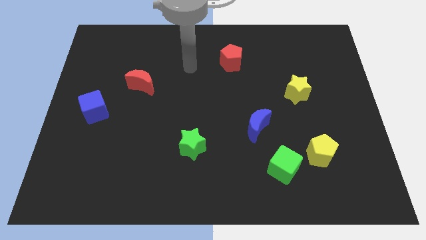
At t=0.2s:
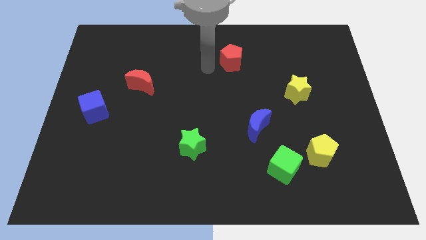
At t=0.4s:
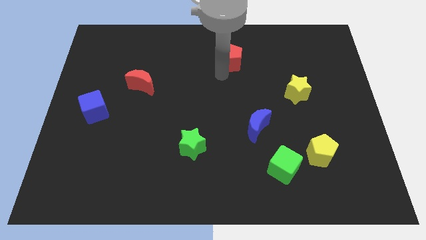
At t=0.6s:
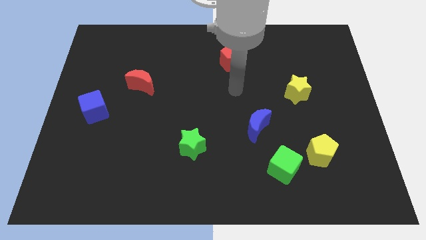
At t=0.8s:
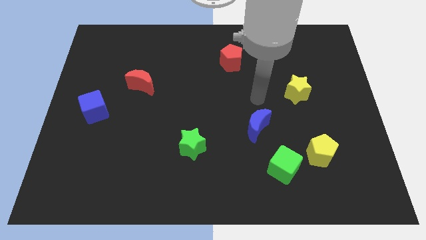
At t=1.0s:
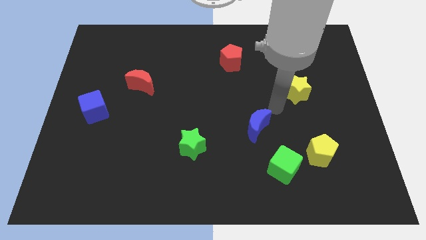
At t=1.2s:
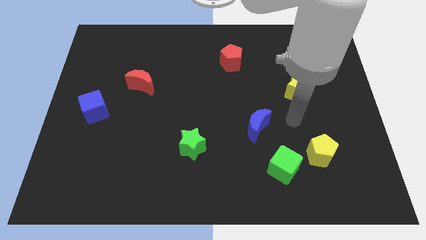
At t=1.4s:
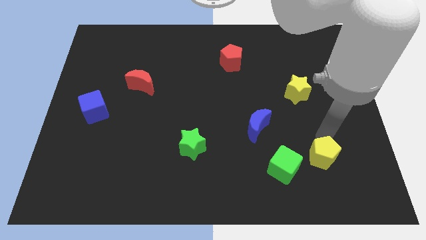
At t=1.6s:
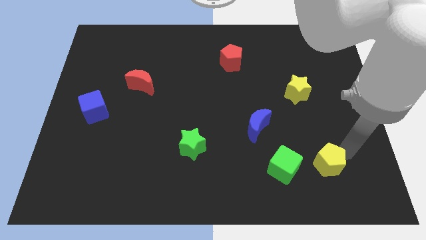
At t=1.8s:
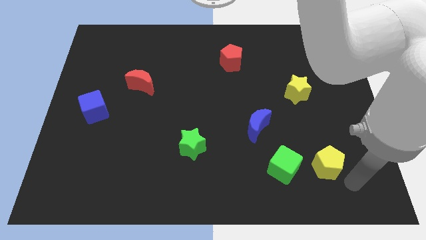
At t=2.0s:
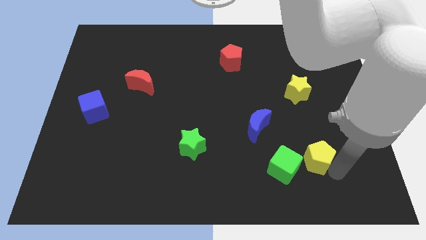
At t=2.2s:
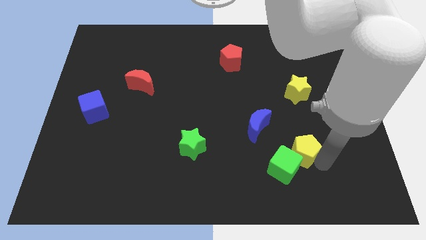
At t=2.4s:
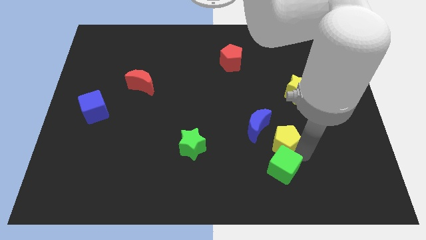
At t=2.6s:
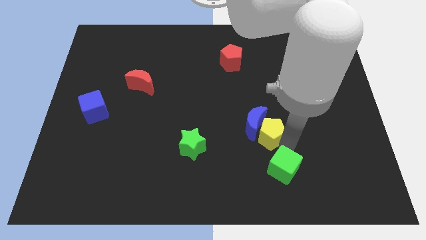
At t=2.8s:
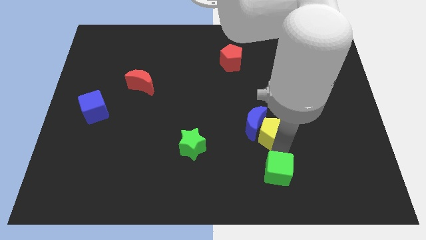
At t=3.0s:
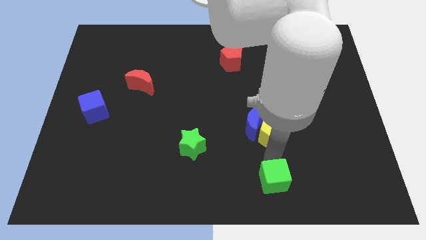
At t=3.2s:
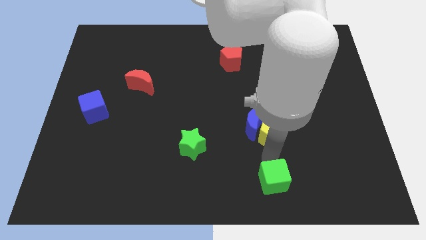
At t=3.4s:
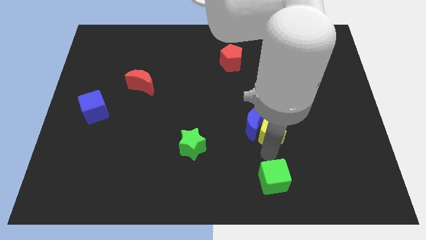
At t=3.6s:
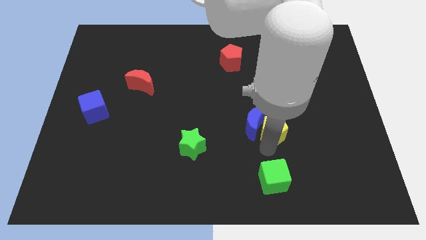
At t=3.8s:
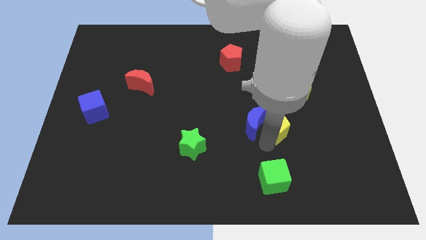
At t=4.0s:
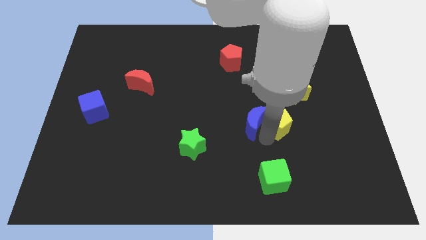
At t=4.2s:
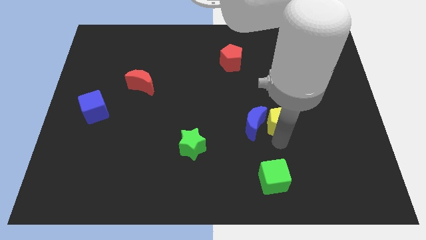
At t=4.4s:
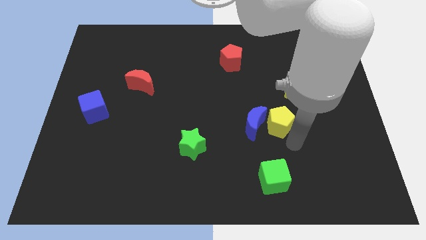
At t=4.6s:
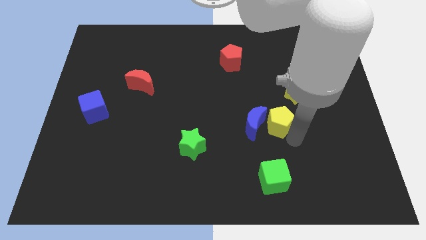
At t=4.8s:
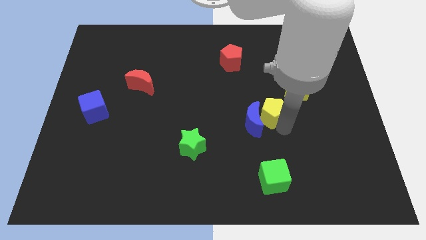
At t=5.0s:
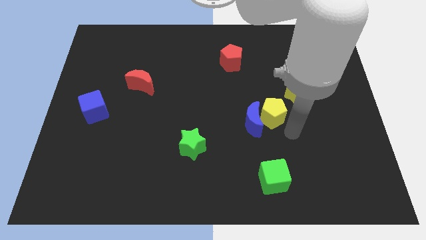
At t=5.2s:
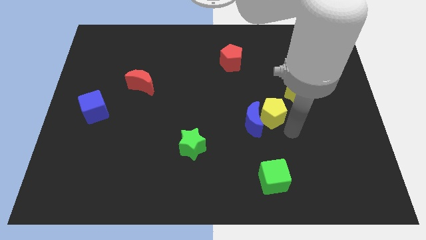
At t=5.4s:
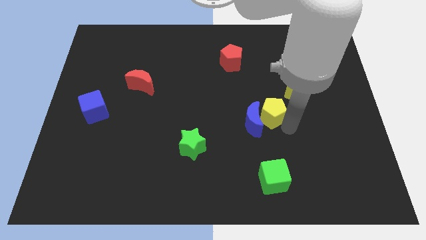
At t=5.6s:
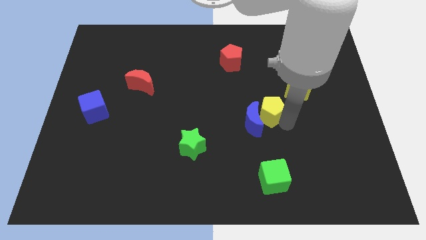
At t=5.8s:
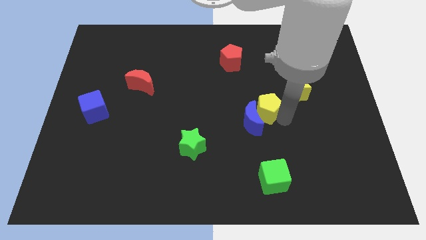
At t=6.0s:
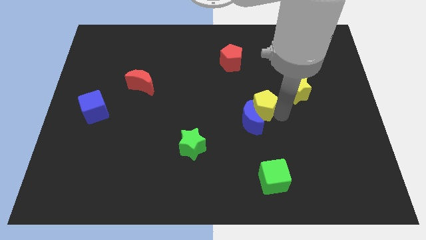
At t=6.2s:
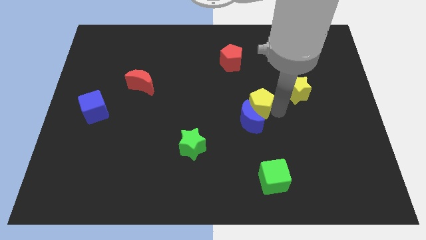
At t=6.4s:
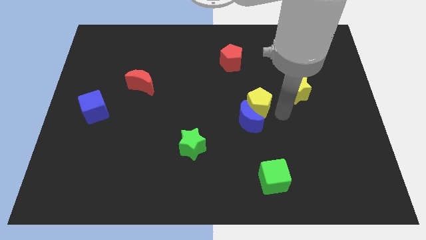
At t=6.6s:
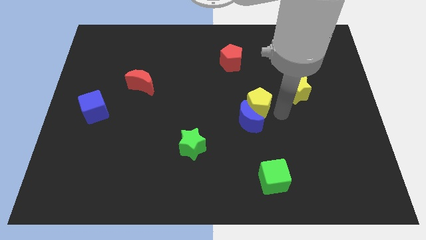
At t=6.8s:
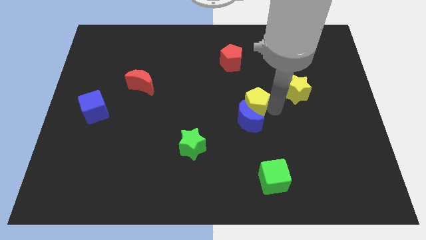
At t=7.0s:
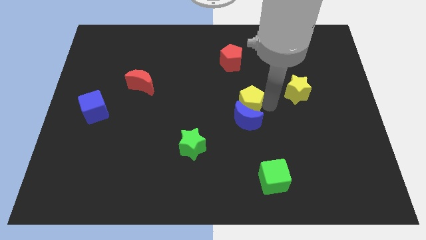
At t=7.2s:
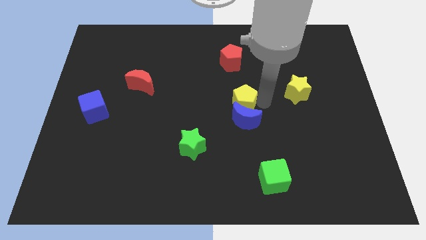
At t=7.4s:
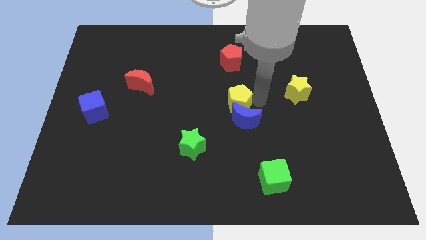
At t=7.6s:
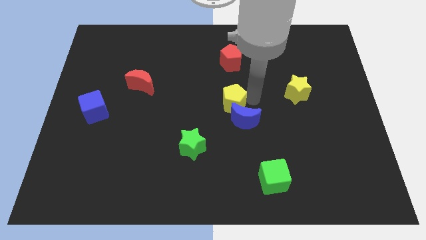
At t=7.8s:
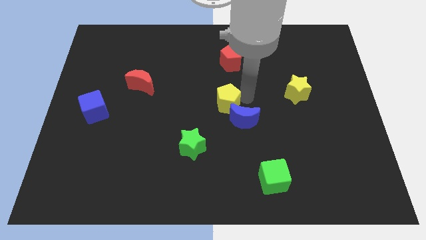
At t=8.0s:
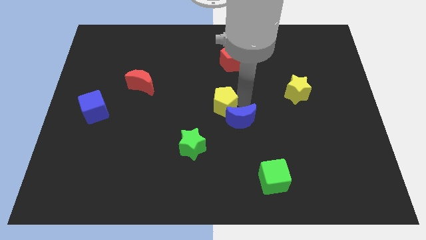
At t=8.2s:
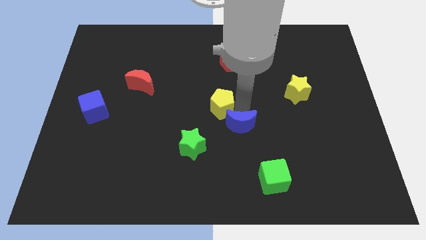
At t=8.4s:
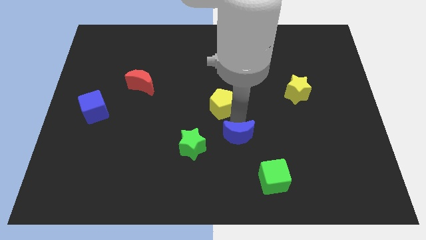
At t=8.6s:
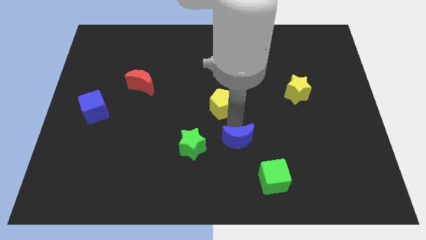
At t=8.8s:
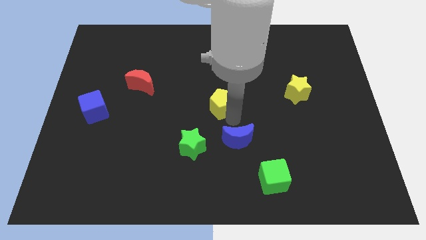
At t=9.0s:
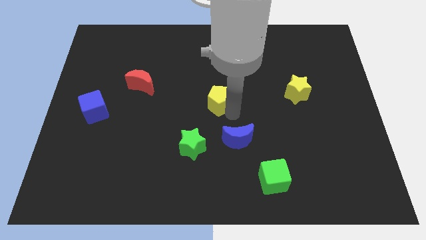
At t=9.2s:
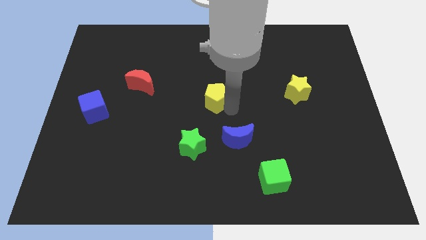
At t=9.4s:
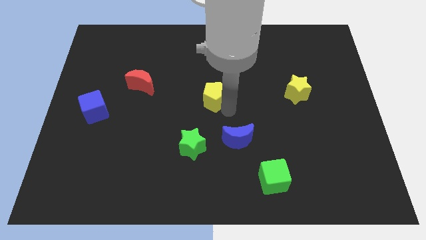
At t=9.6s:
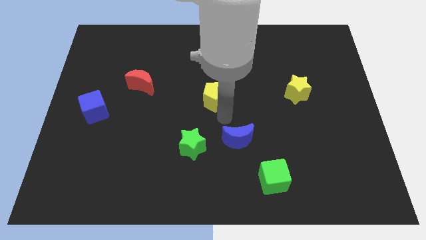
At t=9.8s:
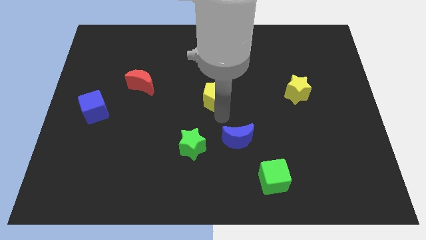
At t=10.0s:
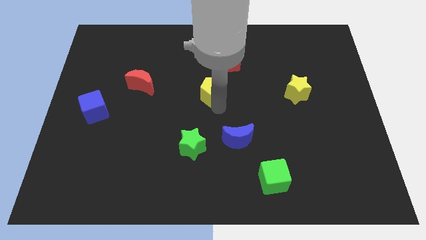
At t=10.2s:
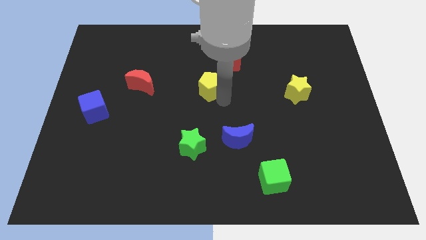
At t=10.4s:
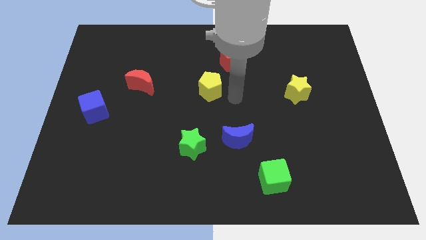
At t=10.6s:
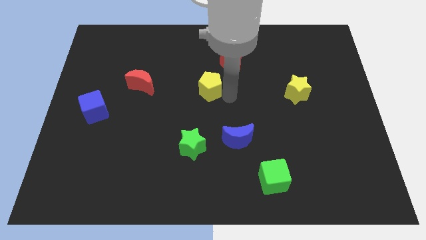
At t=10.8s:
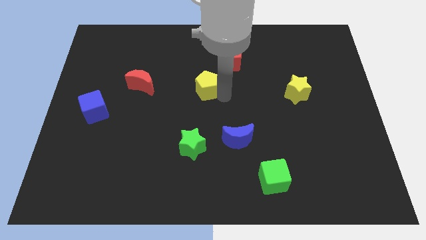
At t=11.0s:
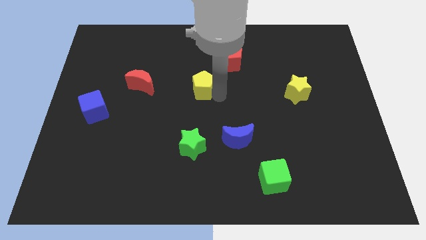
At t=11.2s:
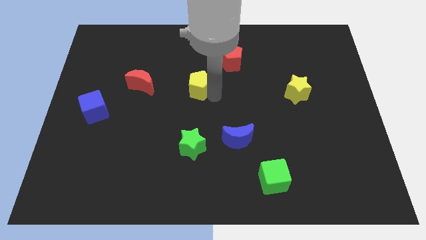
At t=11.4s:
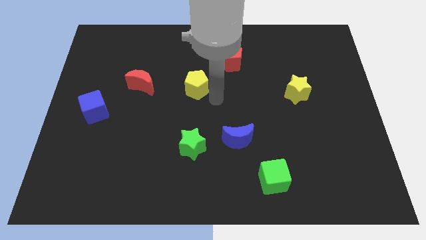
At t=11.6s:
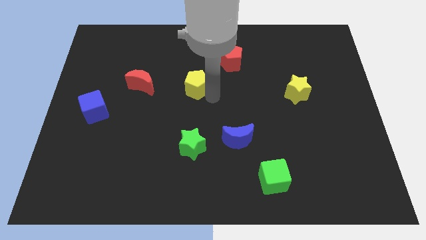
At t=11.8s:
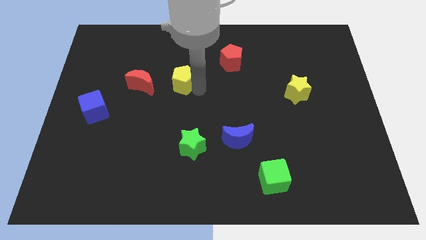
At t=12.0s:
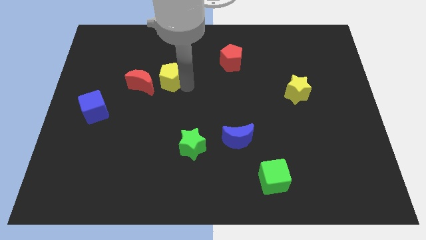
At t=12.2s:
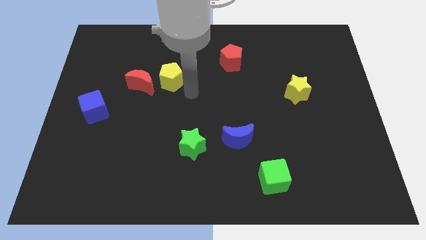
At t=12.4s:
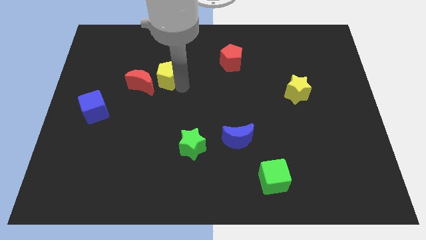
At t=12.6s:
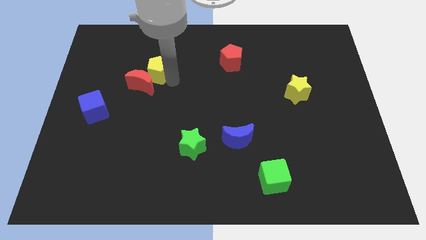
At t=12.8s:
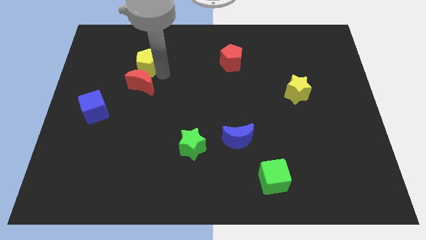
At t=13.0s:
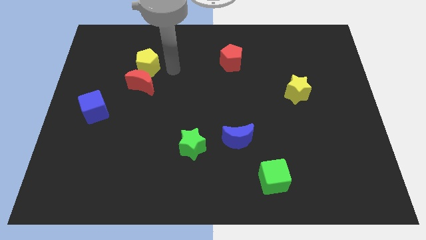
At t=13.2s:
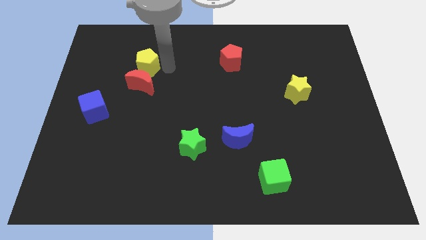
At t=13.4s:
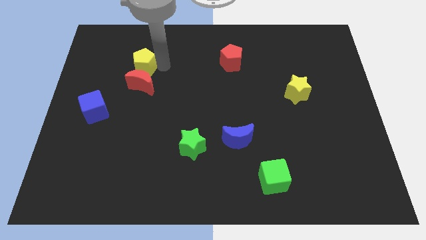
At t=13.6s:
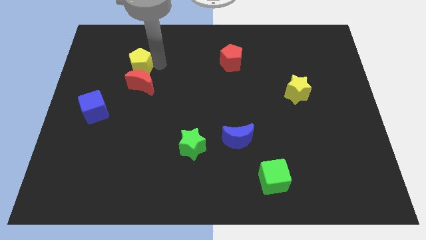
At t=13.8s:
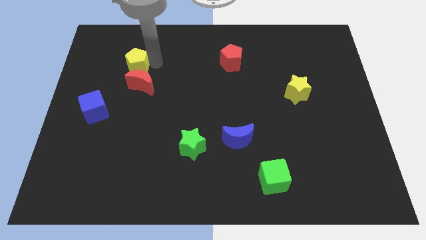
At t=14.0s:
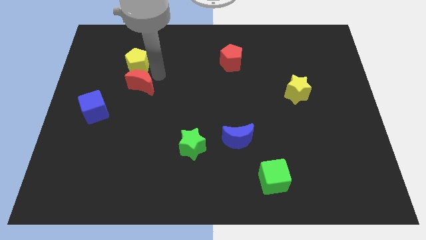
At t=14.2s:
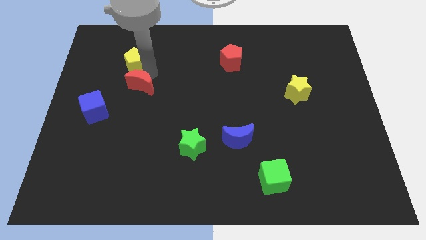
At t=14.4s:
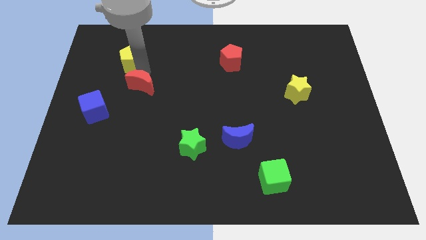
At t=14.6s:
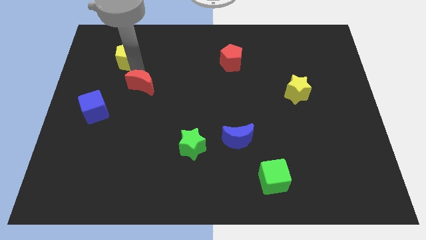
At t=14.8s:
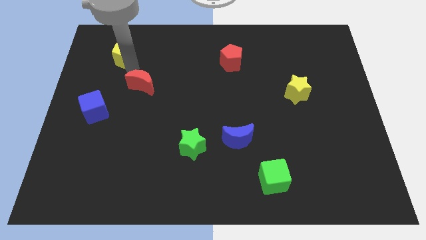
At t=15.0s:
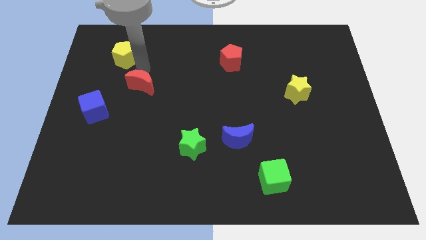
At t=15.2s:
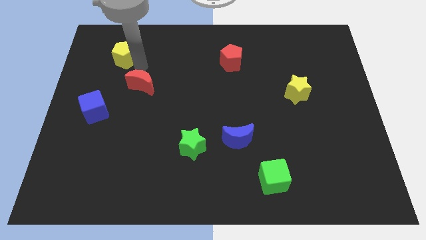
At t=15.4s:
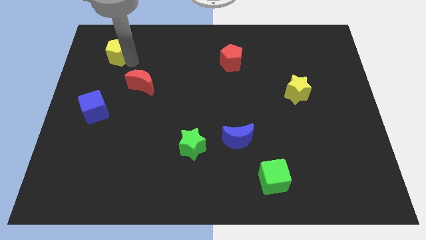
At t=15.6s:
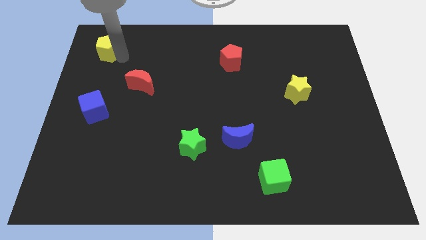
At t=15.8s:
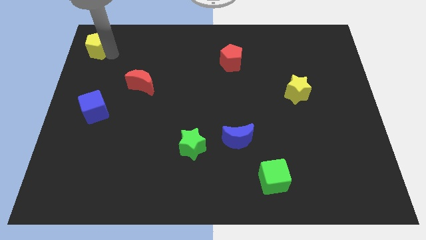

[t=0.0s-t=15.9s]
push the yellow pentagon to the top left
